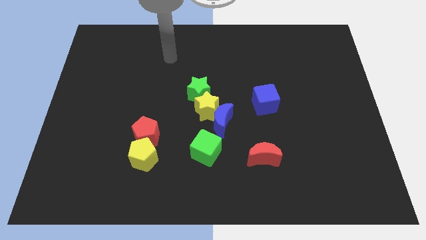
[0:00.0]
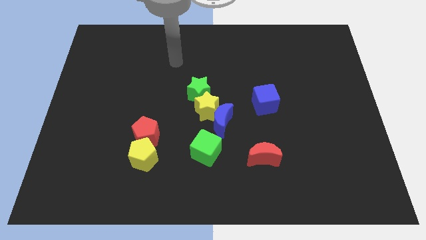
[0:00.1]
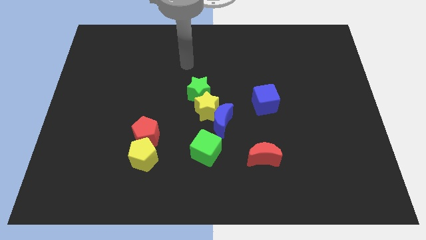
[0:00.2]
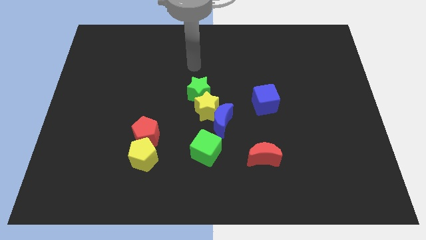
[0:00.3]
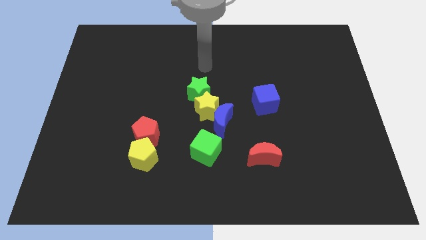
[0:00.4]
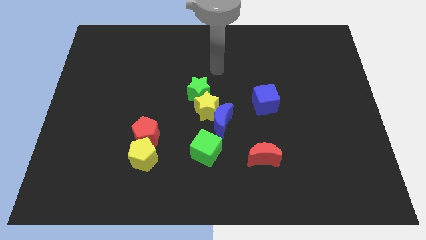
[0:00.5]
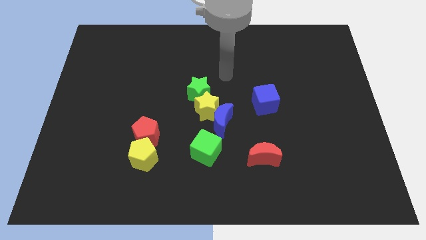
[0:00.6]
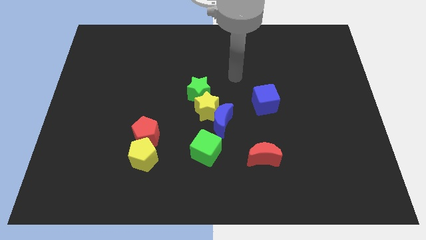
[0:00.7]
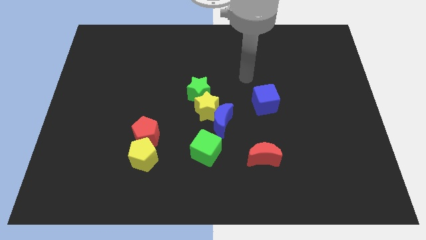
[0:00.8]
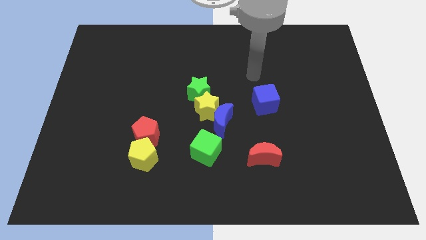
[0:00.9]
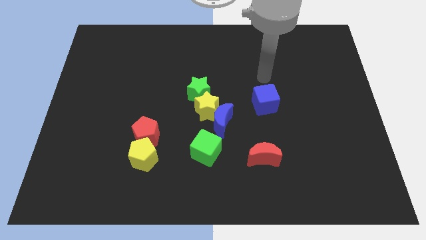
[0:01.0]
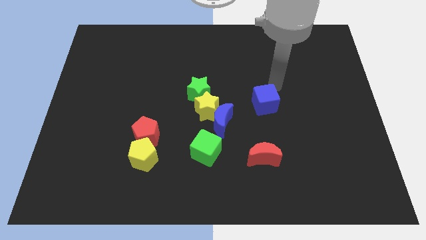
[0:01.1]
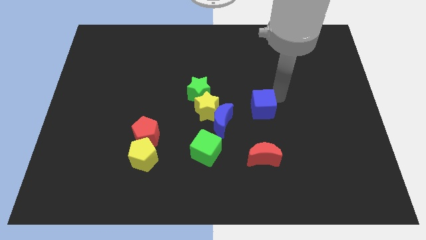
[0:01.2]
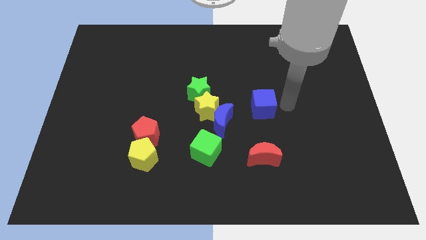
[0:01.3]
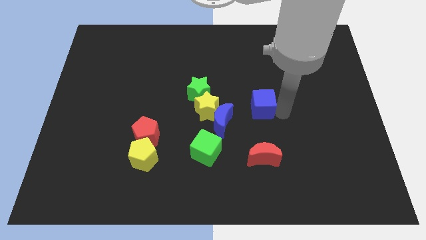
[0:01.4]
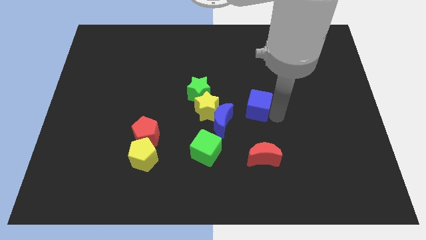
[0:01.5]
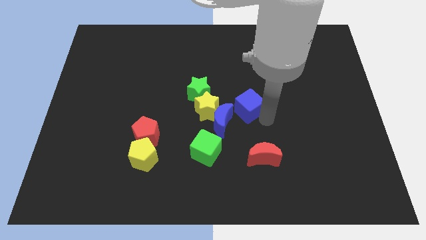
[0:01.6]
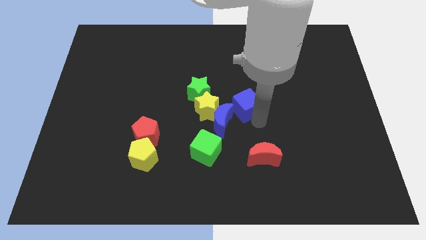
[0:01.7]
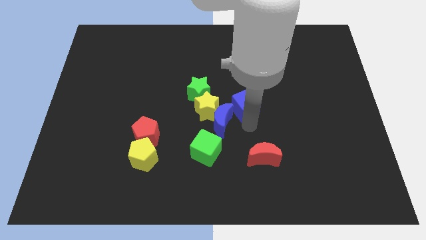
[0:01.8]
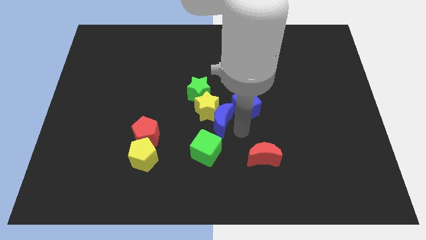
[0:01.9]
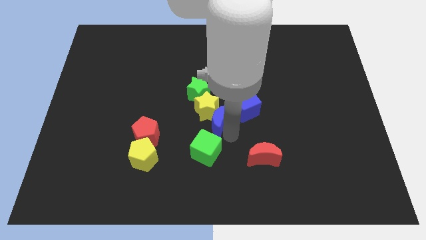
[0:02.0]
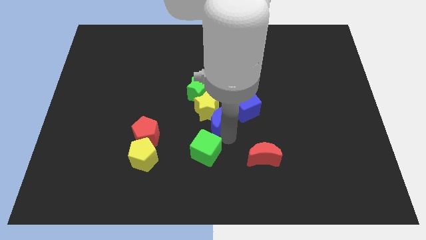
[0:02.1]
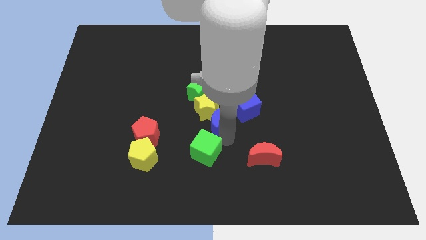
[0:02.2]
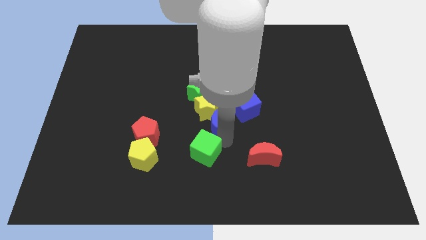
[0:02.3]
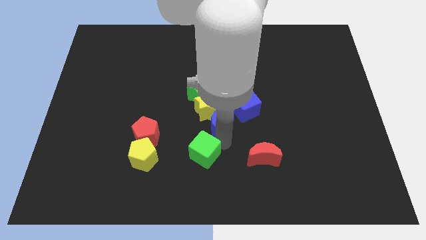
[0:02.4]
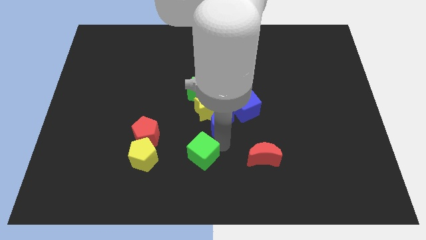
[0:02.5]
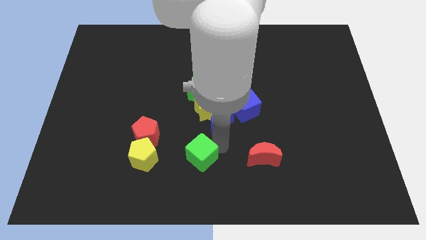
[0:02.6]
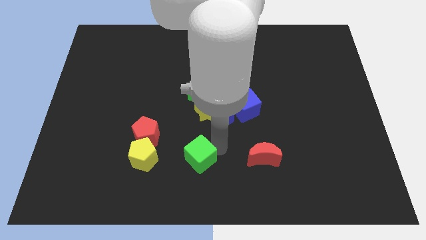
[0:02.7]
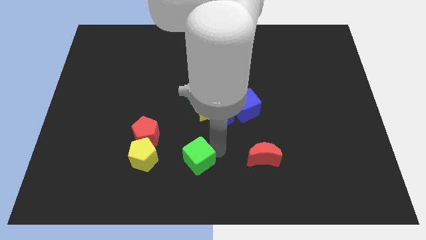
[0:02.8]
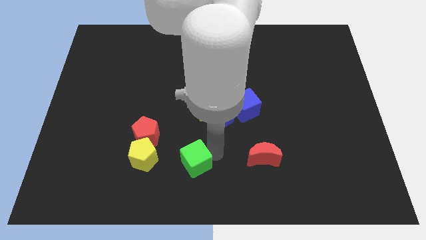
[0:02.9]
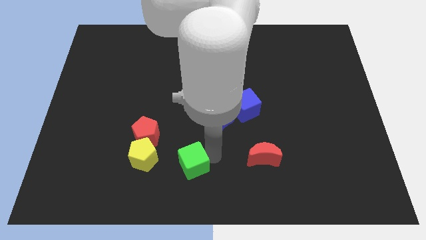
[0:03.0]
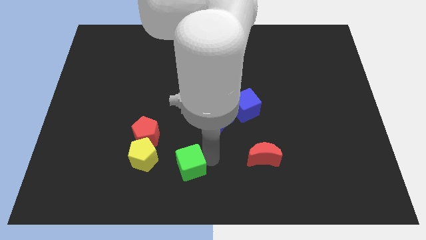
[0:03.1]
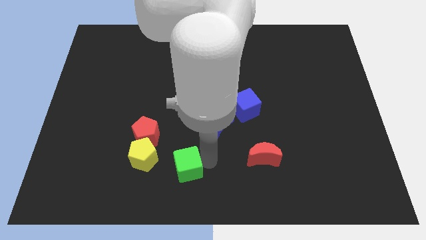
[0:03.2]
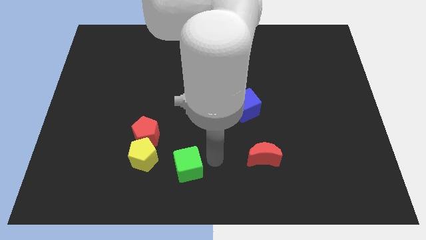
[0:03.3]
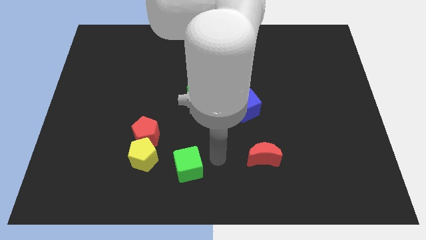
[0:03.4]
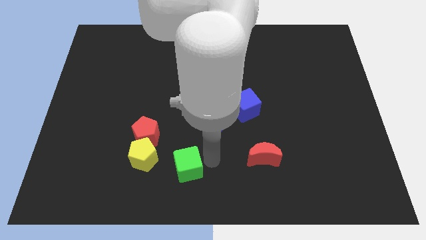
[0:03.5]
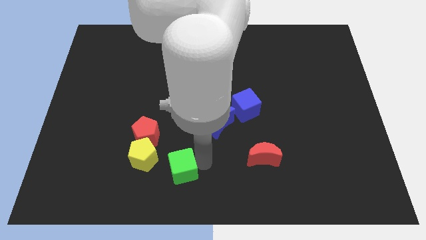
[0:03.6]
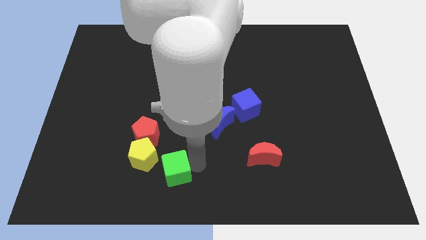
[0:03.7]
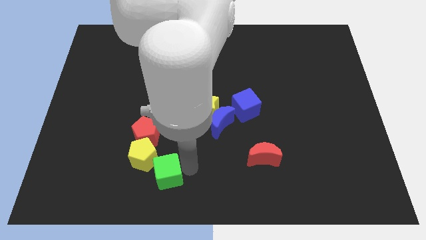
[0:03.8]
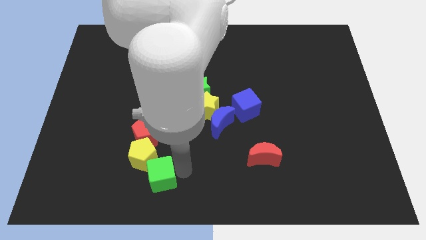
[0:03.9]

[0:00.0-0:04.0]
move the green cube left a little bit

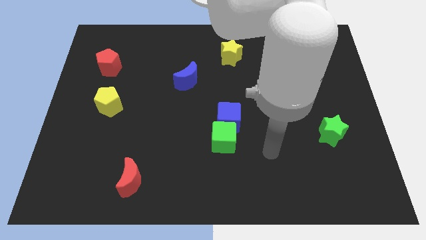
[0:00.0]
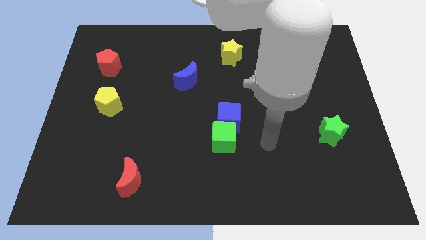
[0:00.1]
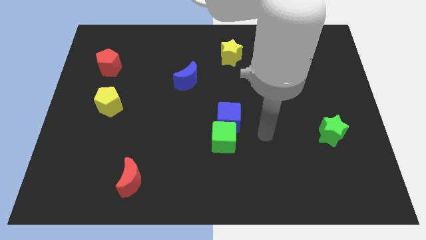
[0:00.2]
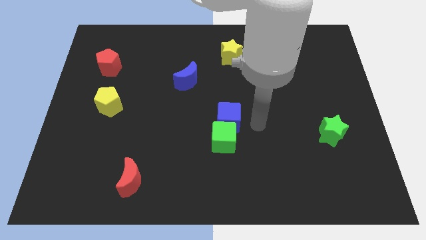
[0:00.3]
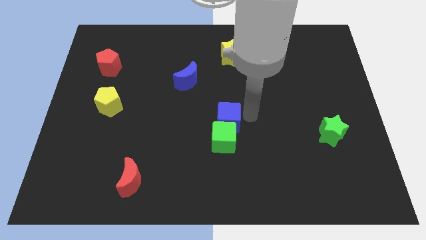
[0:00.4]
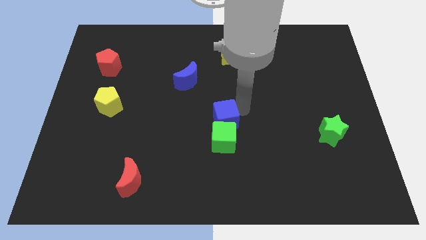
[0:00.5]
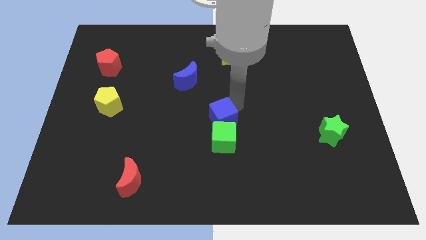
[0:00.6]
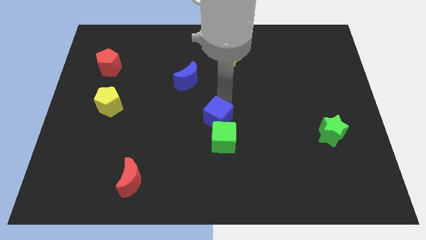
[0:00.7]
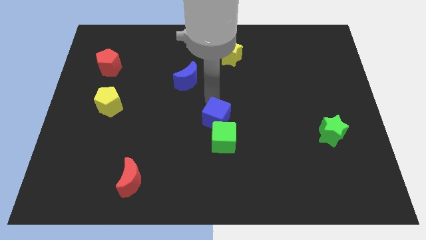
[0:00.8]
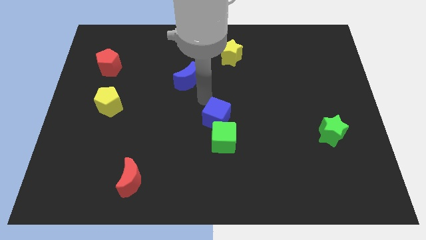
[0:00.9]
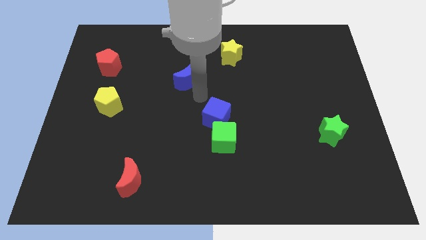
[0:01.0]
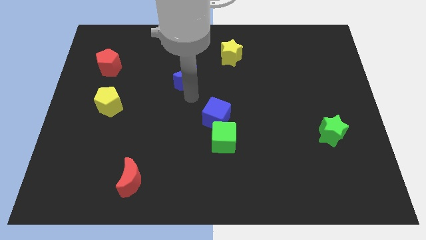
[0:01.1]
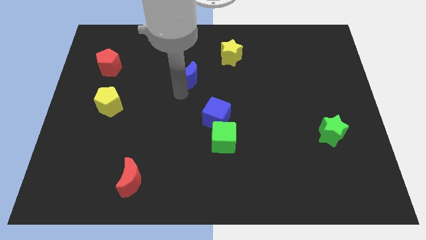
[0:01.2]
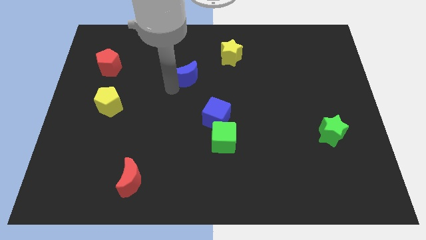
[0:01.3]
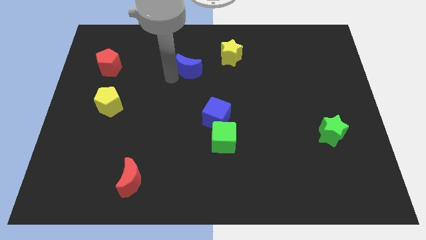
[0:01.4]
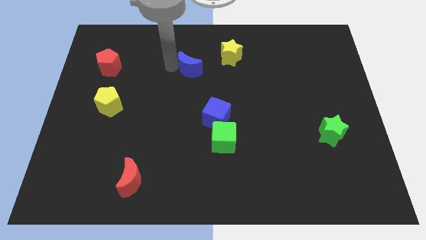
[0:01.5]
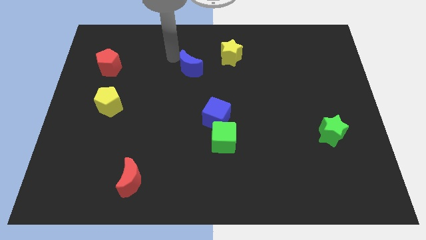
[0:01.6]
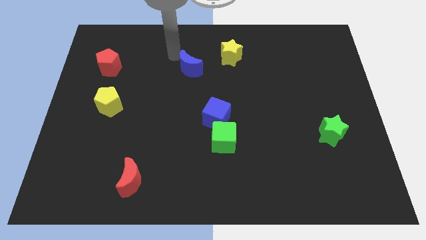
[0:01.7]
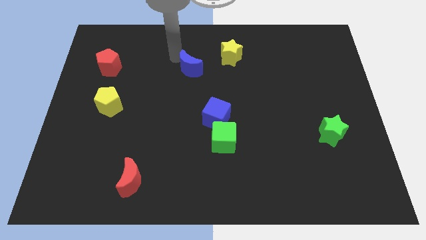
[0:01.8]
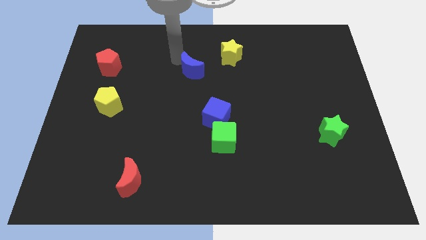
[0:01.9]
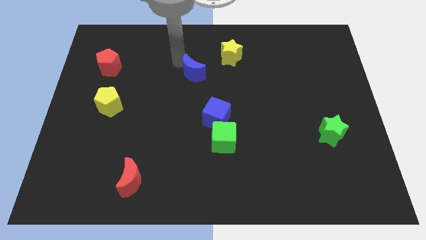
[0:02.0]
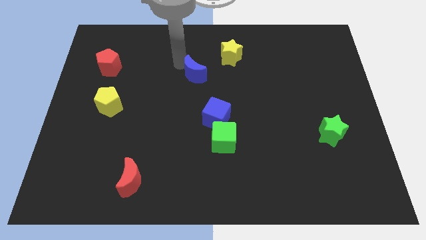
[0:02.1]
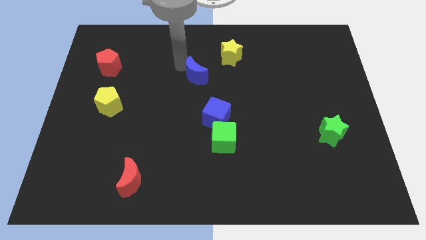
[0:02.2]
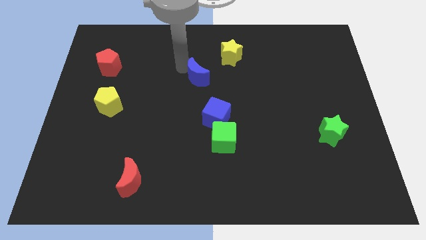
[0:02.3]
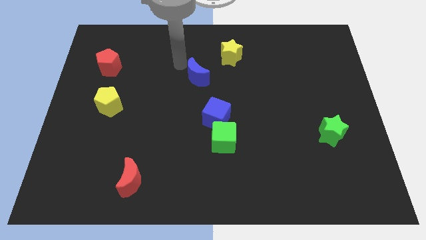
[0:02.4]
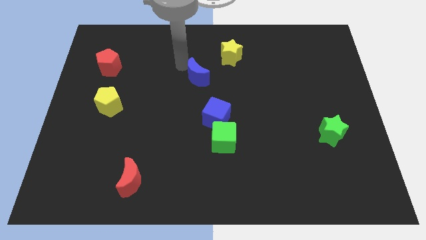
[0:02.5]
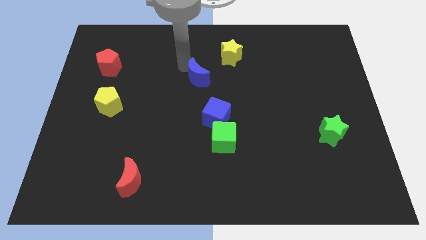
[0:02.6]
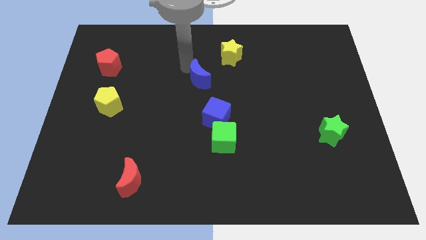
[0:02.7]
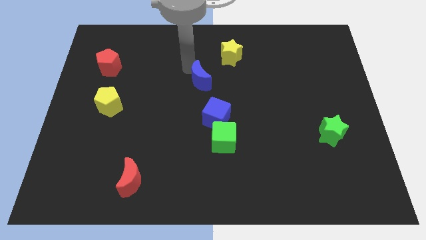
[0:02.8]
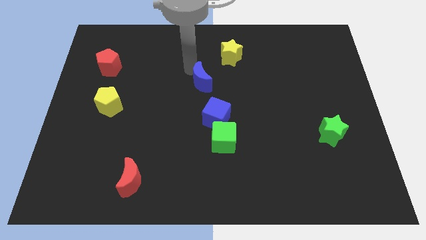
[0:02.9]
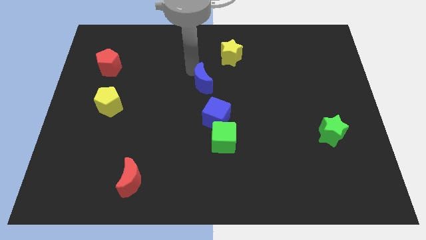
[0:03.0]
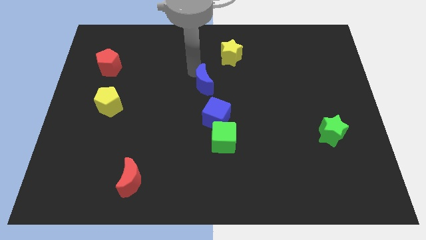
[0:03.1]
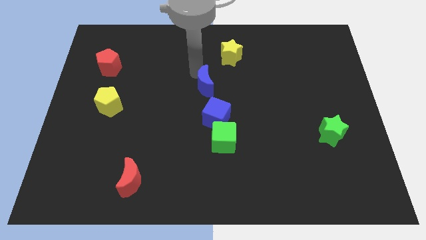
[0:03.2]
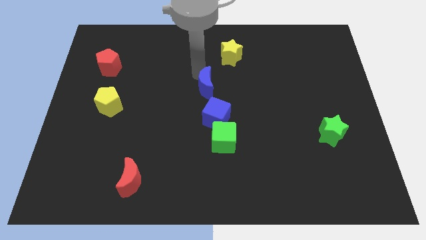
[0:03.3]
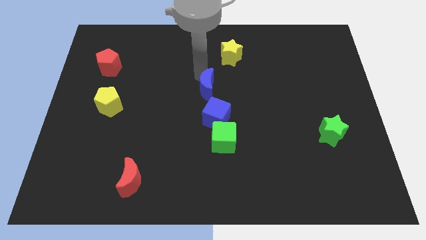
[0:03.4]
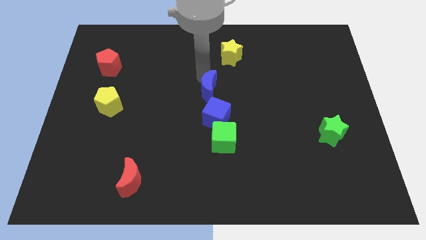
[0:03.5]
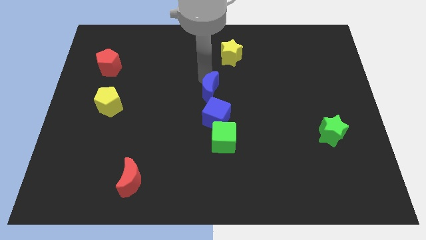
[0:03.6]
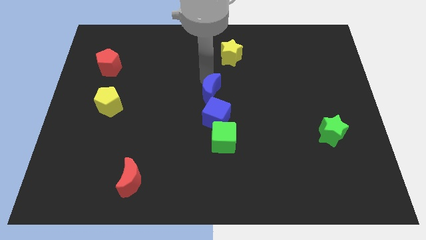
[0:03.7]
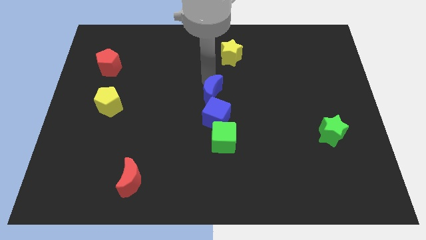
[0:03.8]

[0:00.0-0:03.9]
move the blue moon a bit diagonally downwards and right
